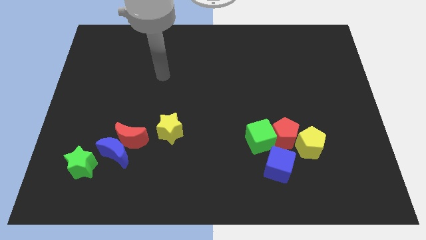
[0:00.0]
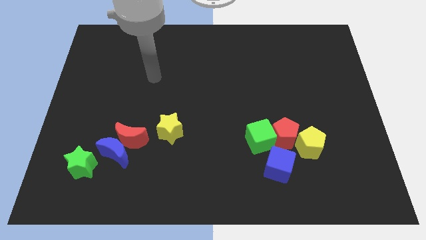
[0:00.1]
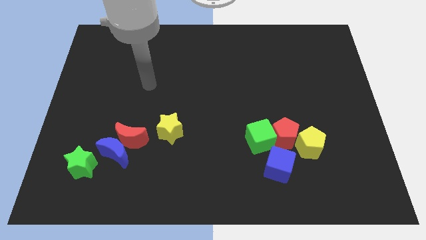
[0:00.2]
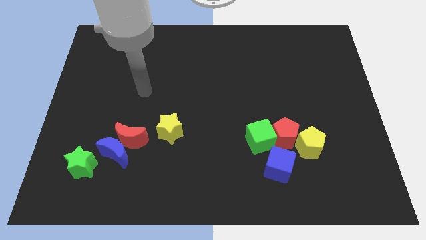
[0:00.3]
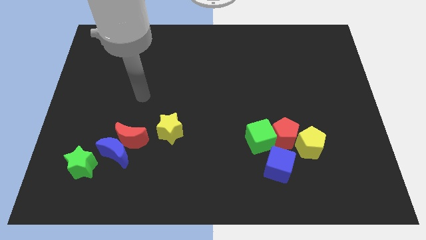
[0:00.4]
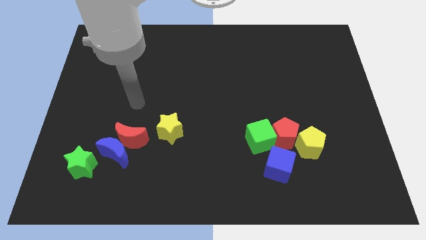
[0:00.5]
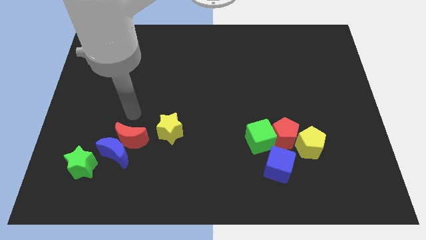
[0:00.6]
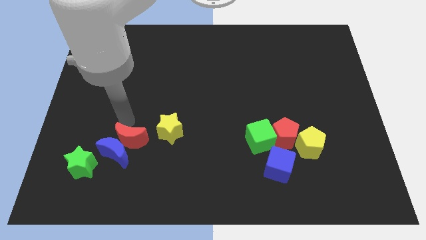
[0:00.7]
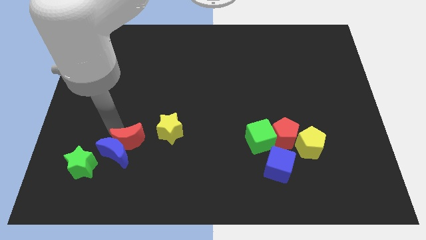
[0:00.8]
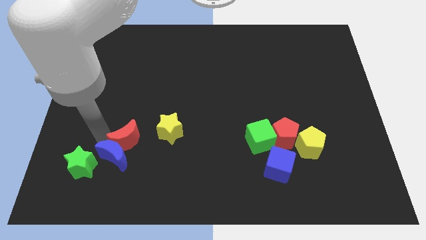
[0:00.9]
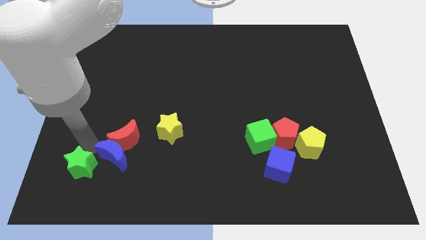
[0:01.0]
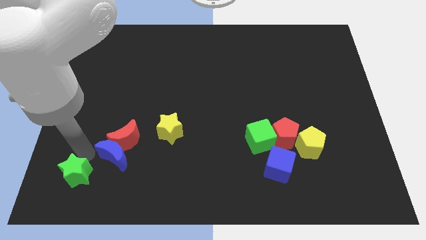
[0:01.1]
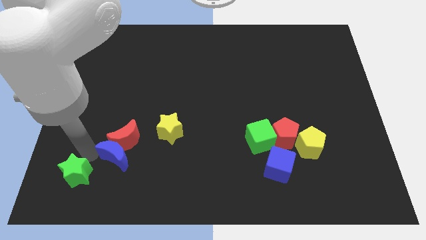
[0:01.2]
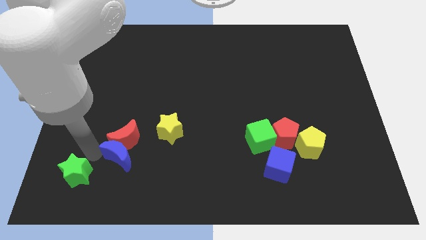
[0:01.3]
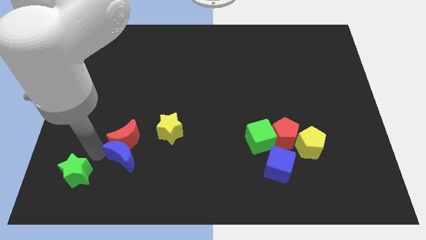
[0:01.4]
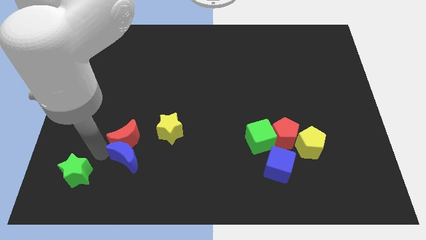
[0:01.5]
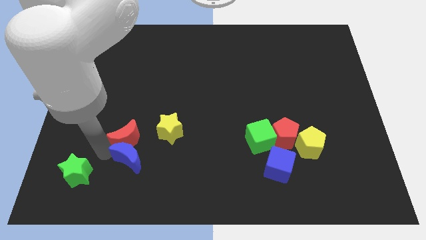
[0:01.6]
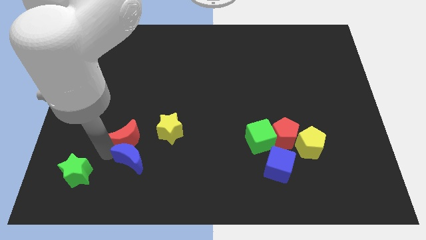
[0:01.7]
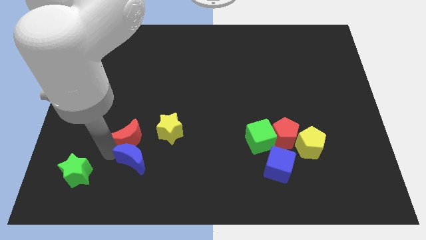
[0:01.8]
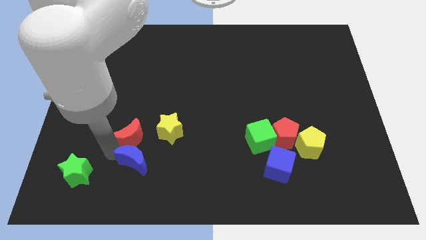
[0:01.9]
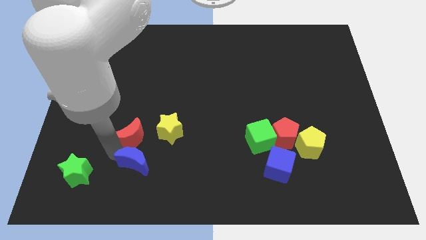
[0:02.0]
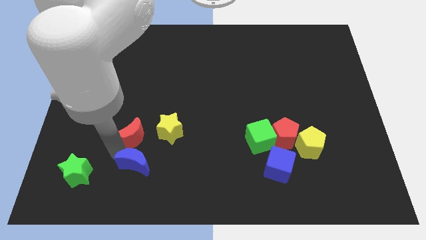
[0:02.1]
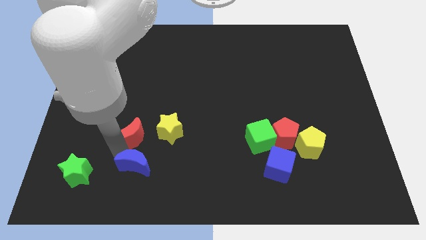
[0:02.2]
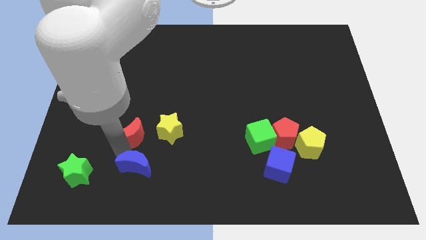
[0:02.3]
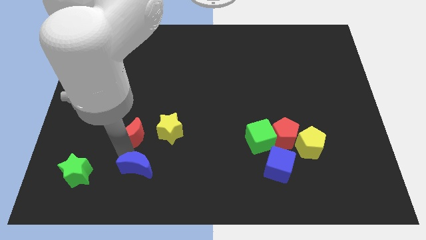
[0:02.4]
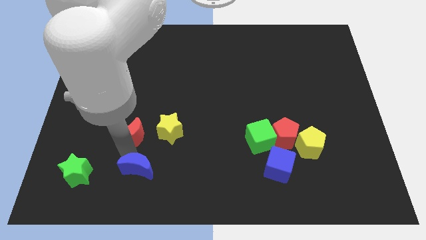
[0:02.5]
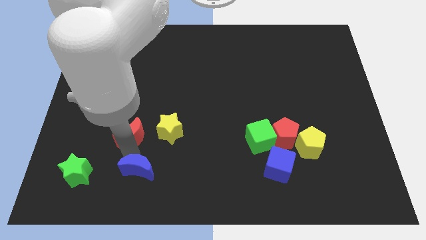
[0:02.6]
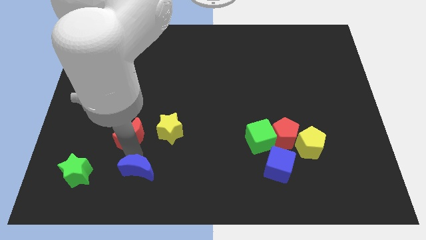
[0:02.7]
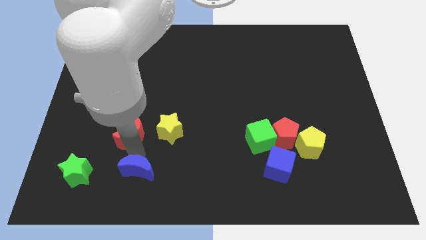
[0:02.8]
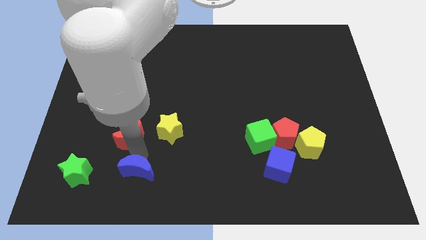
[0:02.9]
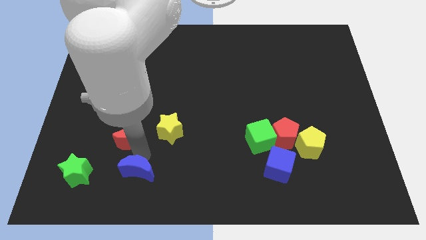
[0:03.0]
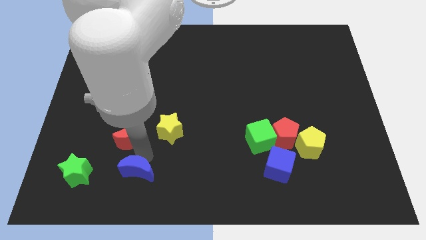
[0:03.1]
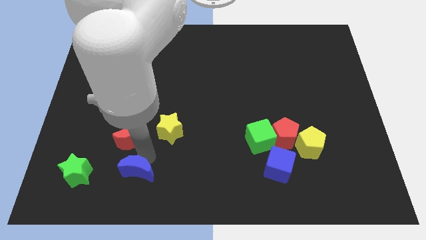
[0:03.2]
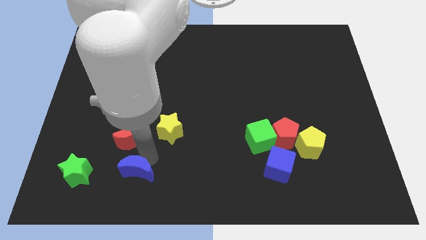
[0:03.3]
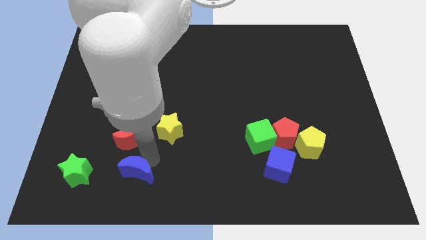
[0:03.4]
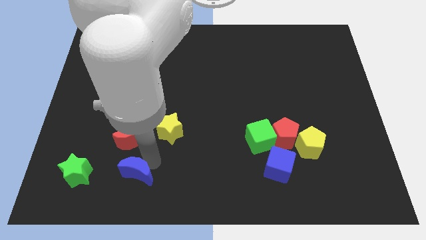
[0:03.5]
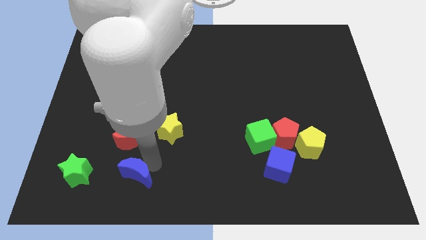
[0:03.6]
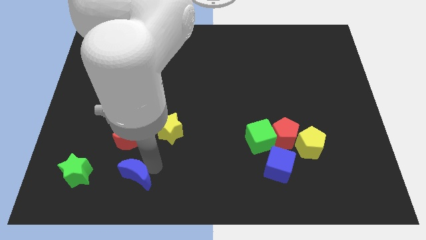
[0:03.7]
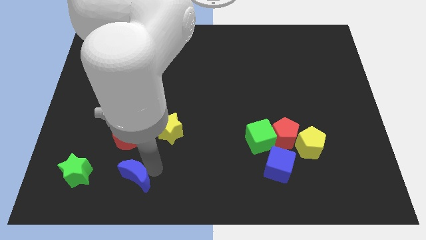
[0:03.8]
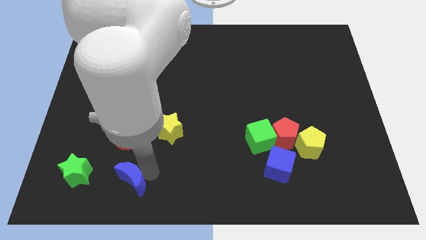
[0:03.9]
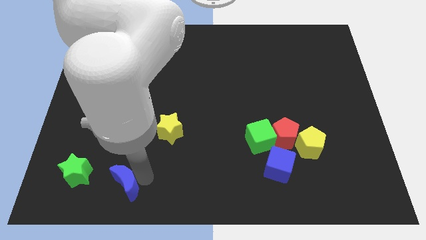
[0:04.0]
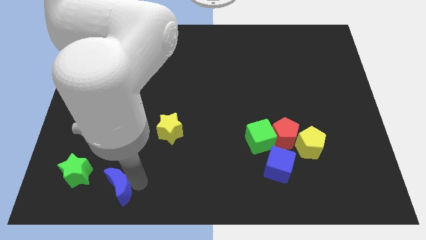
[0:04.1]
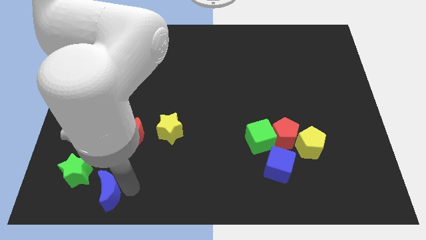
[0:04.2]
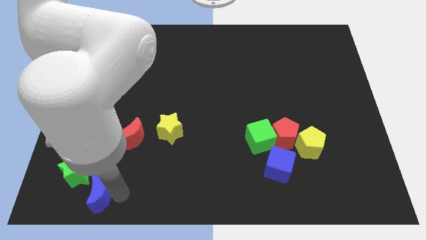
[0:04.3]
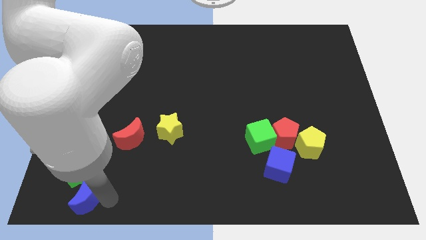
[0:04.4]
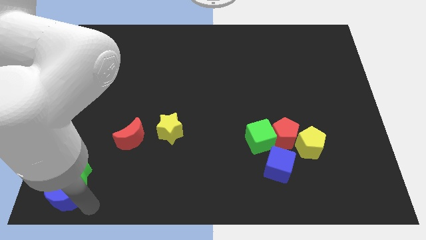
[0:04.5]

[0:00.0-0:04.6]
pull the blue moon apart from the red moon and green star

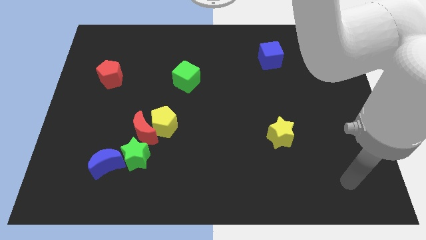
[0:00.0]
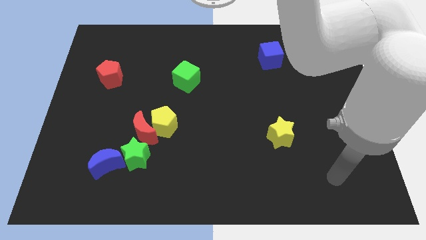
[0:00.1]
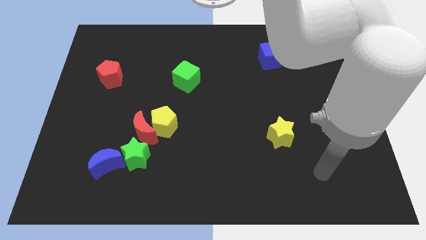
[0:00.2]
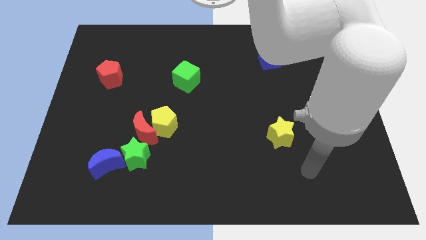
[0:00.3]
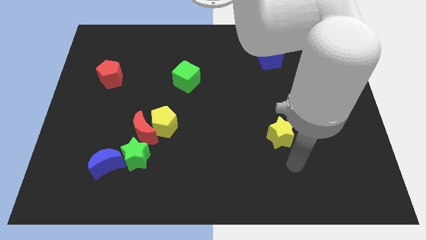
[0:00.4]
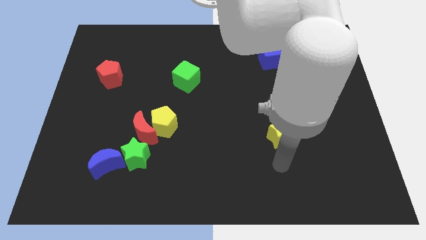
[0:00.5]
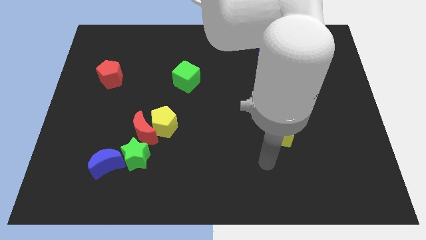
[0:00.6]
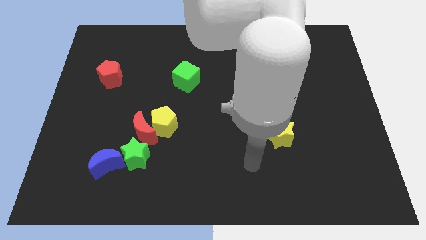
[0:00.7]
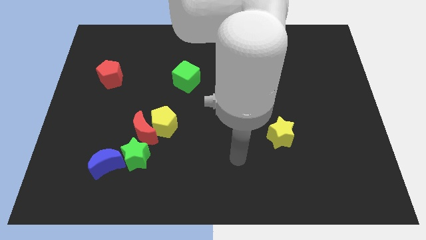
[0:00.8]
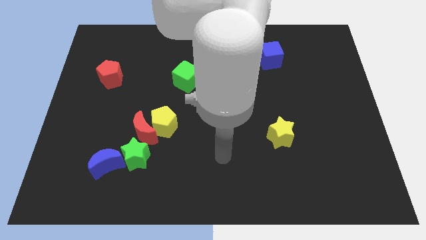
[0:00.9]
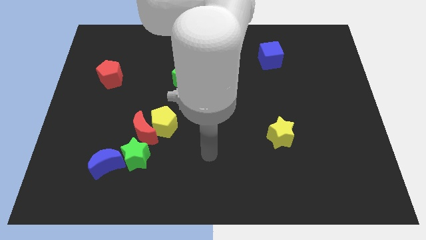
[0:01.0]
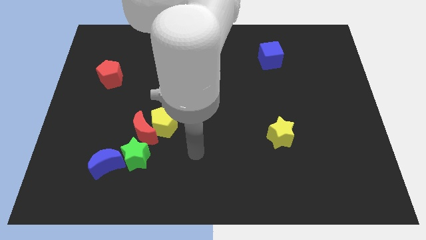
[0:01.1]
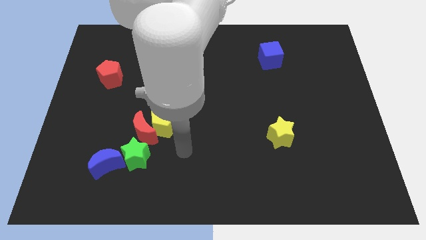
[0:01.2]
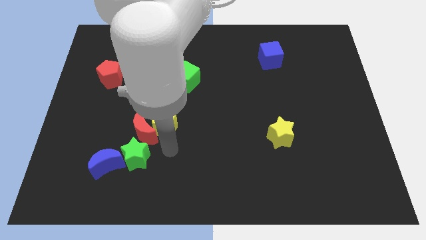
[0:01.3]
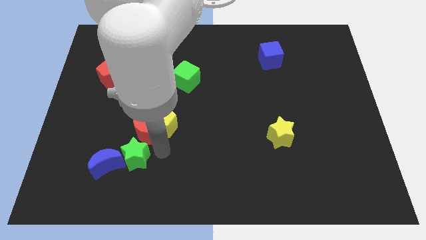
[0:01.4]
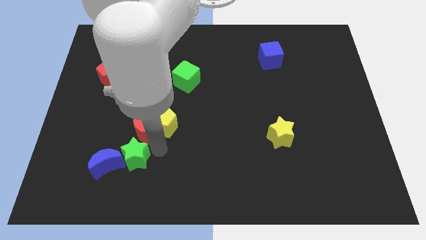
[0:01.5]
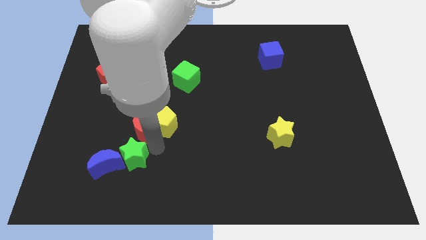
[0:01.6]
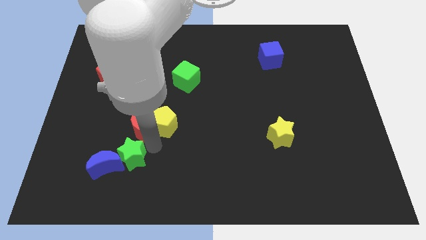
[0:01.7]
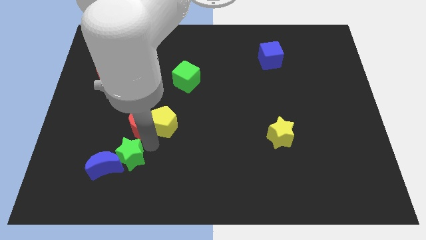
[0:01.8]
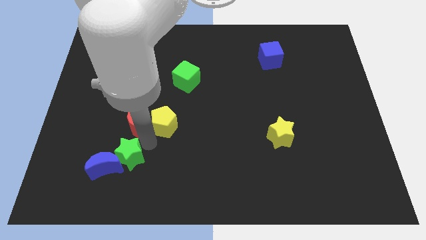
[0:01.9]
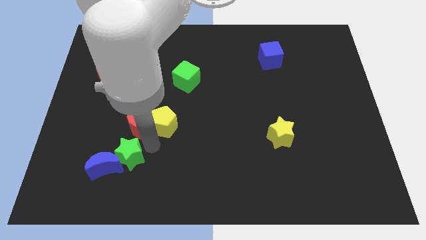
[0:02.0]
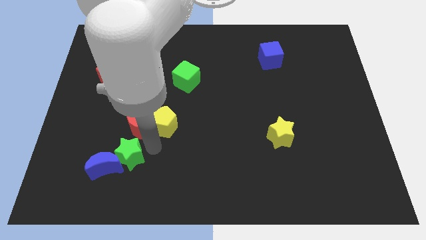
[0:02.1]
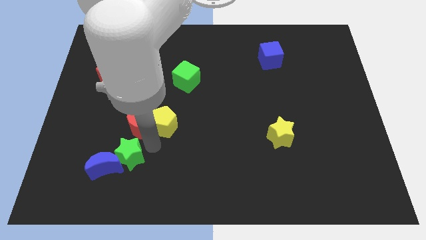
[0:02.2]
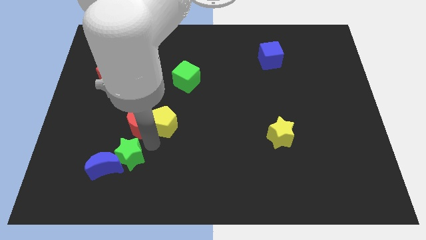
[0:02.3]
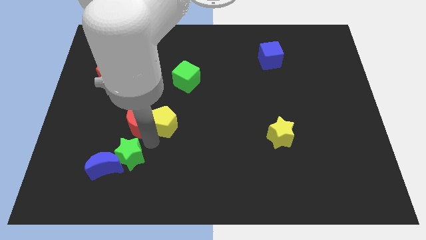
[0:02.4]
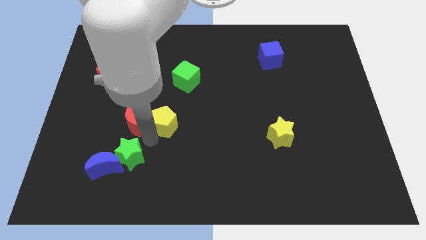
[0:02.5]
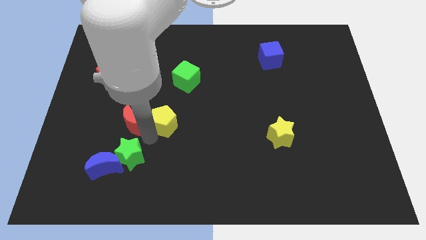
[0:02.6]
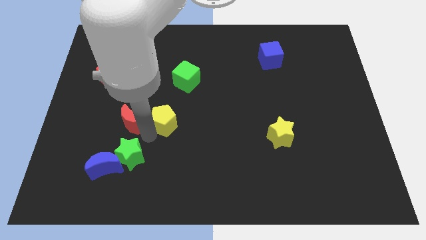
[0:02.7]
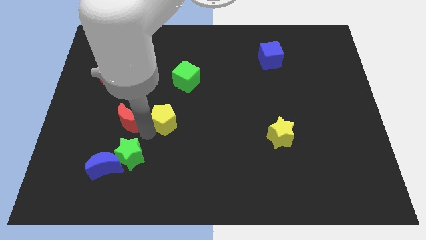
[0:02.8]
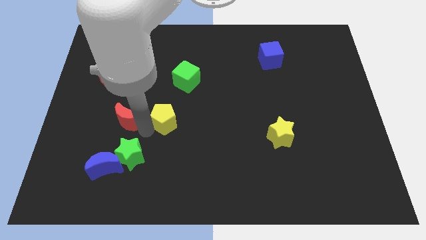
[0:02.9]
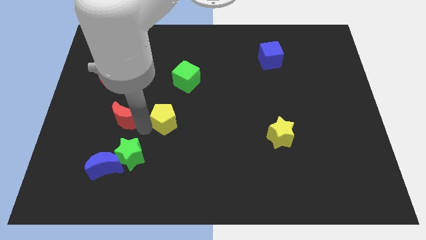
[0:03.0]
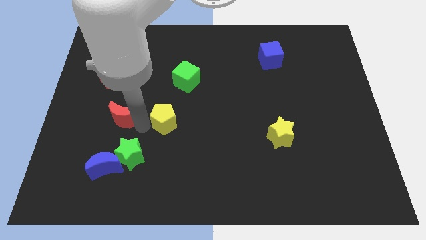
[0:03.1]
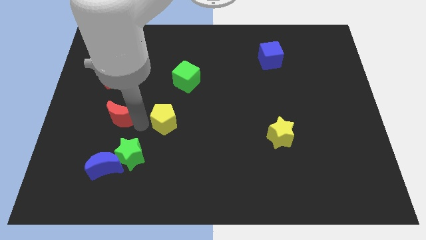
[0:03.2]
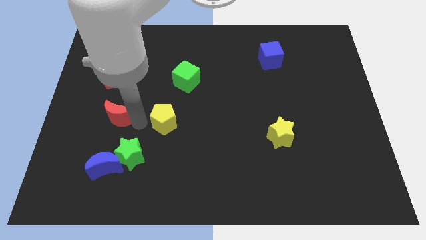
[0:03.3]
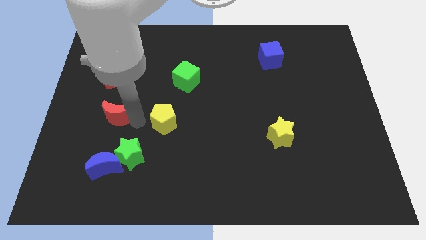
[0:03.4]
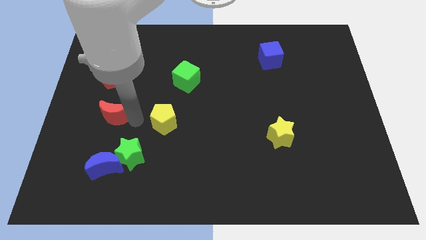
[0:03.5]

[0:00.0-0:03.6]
pull the red moon apart from the yellow pentagon and green star

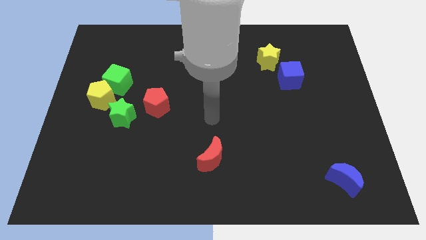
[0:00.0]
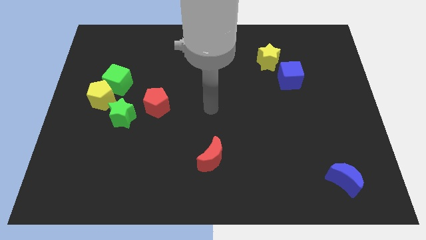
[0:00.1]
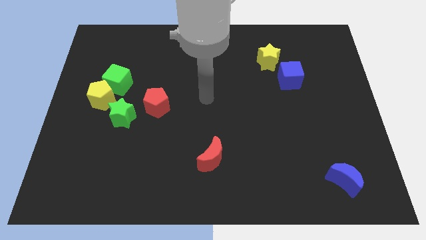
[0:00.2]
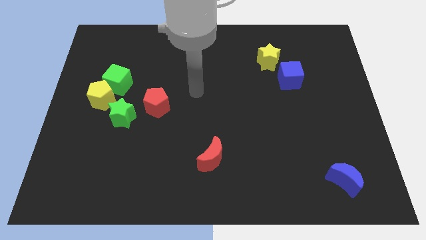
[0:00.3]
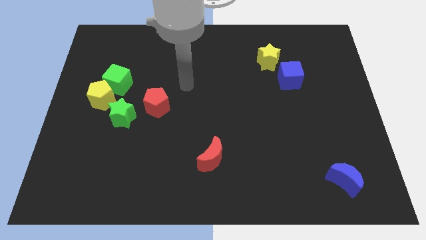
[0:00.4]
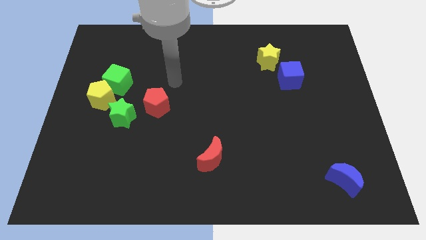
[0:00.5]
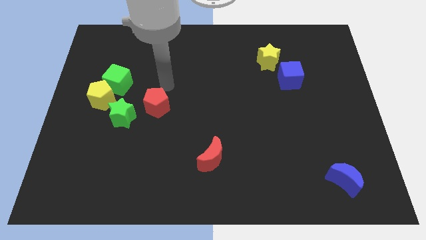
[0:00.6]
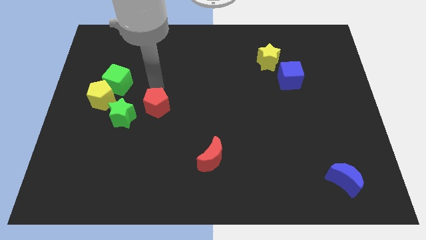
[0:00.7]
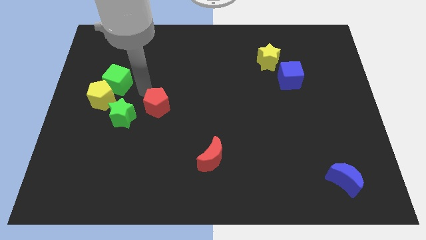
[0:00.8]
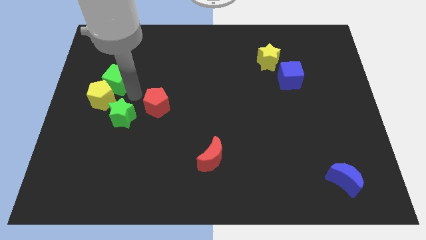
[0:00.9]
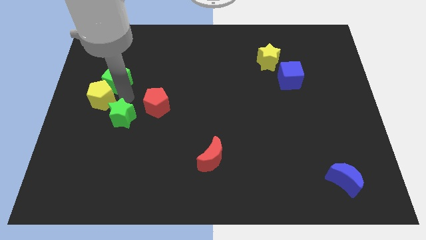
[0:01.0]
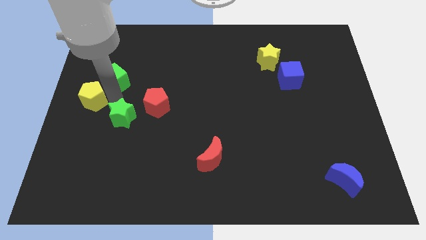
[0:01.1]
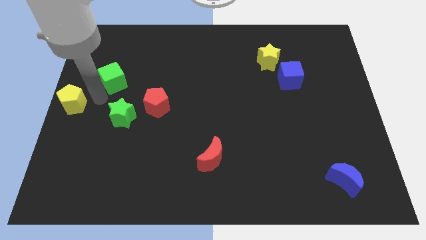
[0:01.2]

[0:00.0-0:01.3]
move the green cube away from the yellow pentagon

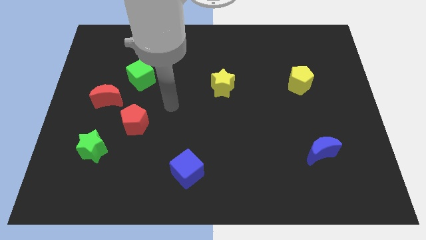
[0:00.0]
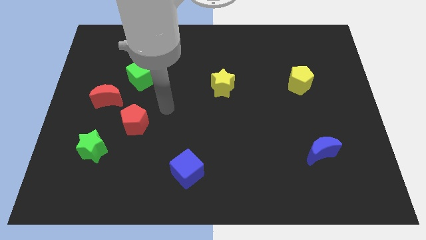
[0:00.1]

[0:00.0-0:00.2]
move the green cube away from the red moon
